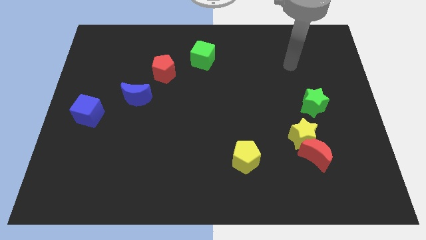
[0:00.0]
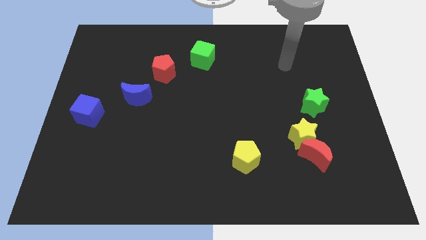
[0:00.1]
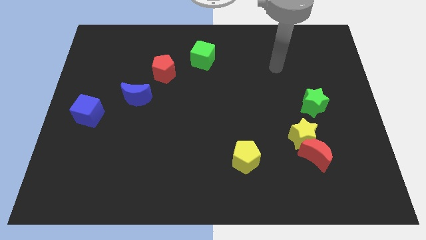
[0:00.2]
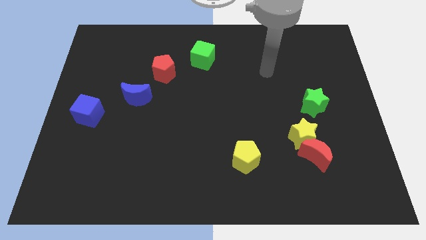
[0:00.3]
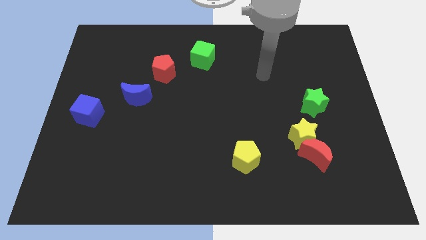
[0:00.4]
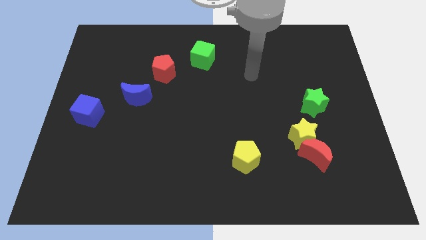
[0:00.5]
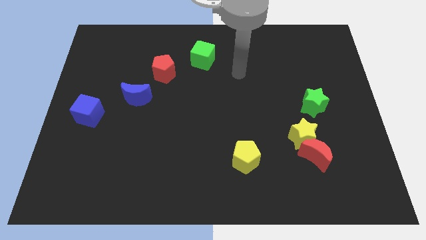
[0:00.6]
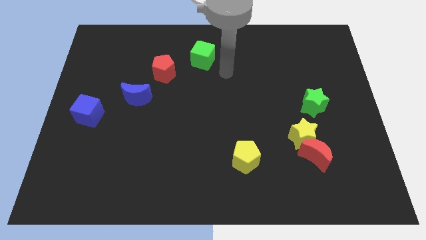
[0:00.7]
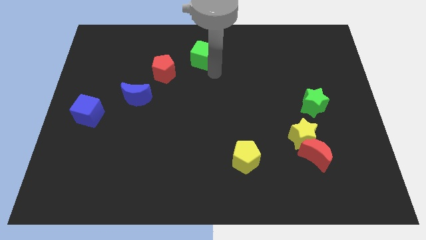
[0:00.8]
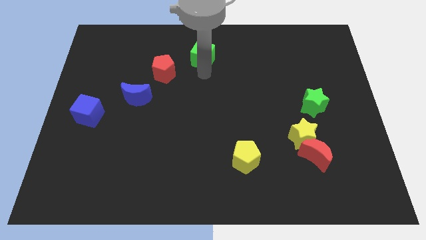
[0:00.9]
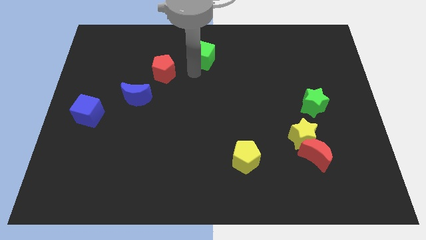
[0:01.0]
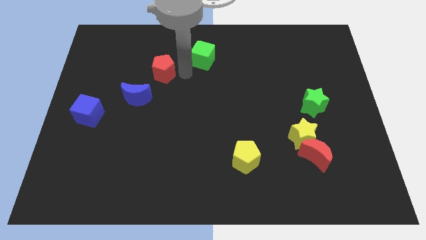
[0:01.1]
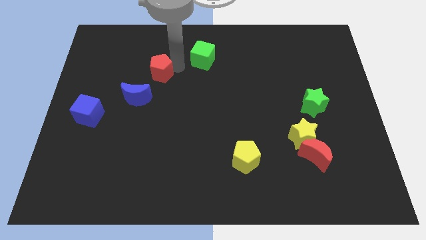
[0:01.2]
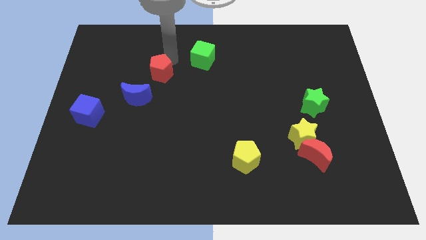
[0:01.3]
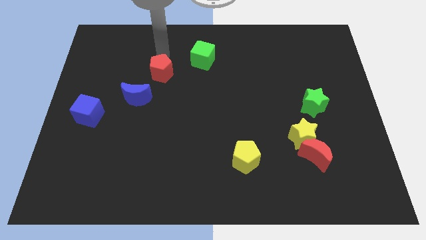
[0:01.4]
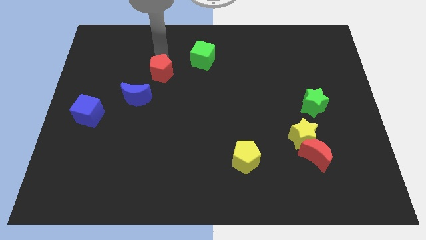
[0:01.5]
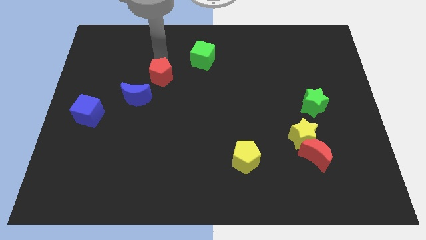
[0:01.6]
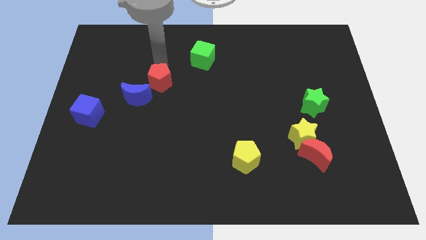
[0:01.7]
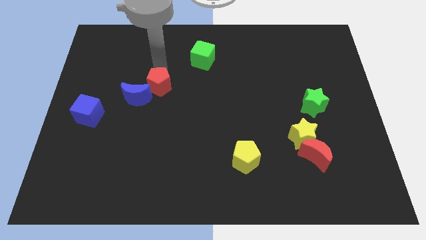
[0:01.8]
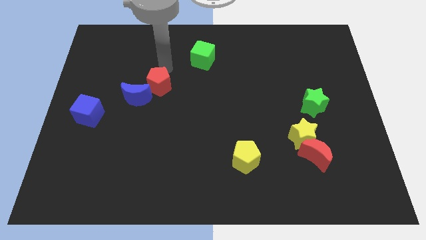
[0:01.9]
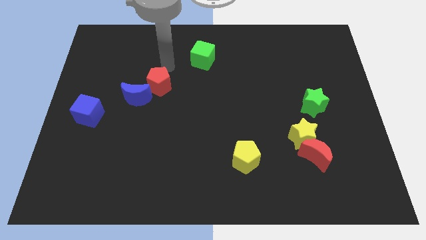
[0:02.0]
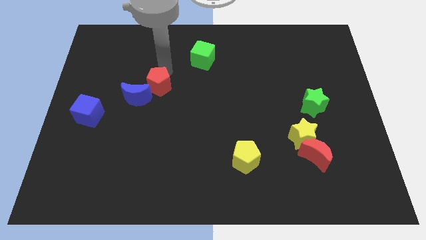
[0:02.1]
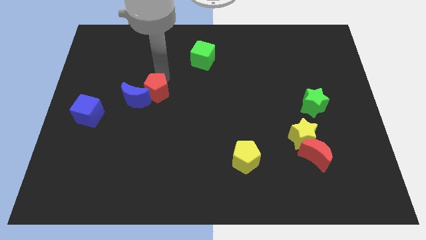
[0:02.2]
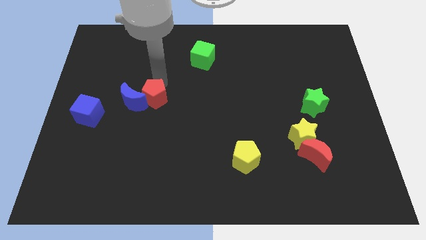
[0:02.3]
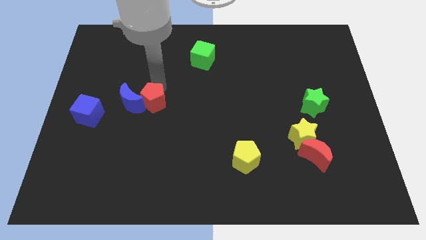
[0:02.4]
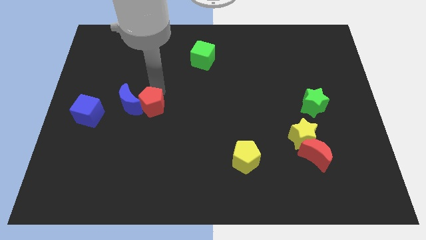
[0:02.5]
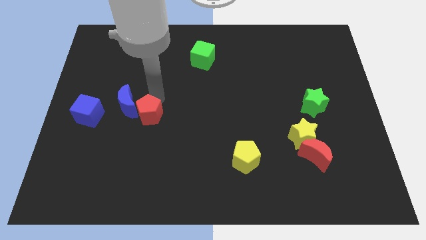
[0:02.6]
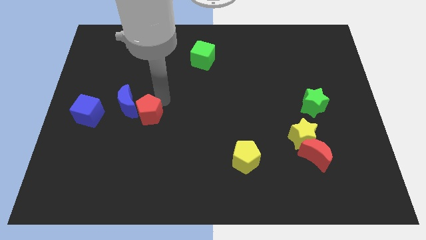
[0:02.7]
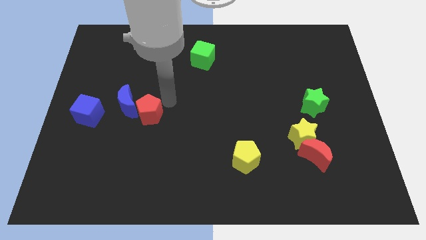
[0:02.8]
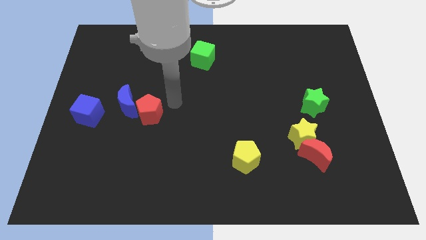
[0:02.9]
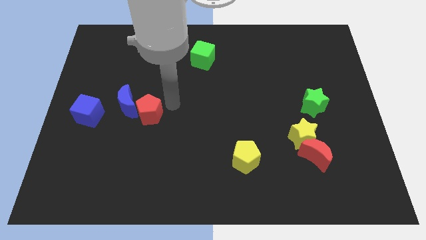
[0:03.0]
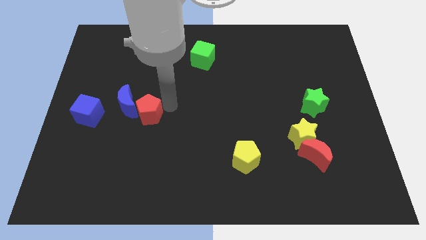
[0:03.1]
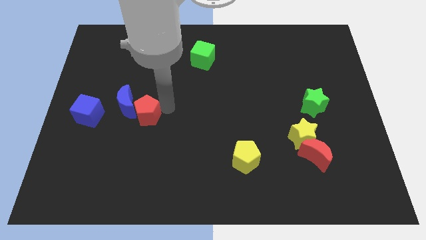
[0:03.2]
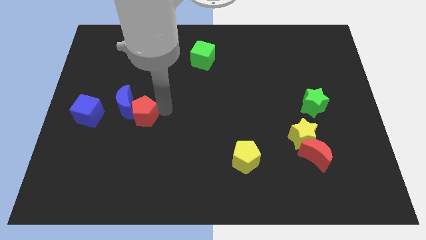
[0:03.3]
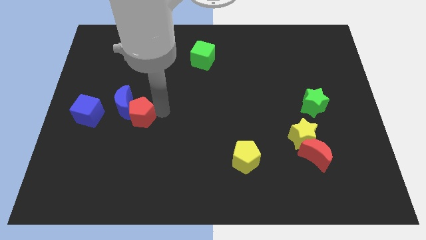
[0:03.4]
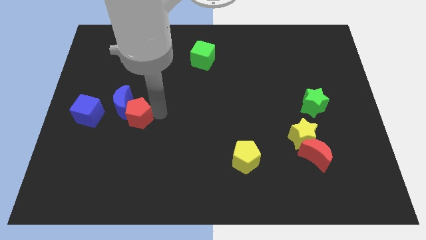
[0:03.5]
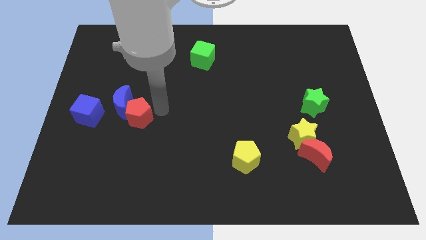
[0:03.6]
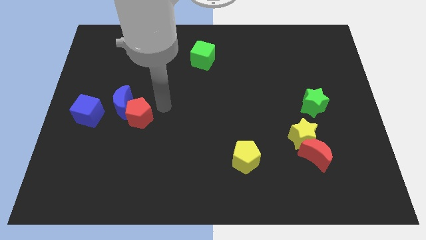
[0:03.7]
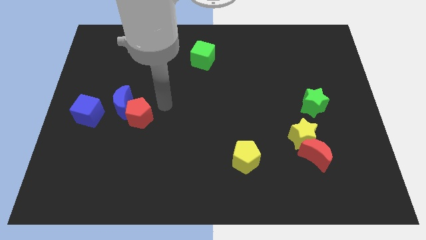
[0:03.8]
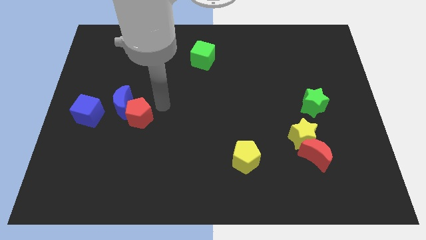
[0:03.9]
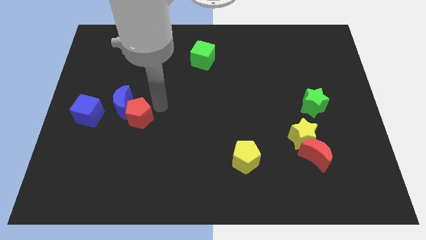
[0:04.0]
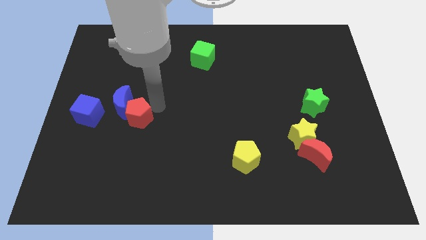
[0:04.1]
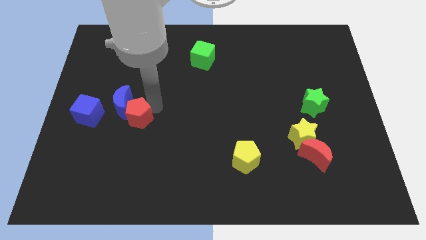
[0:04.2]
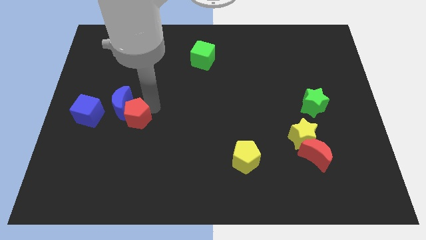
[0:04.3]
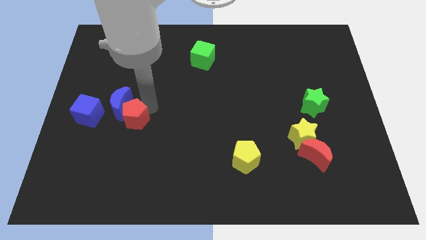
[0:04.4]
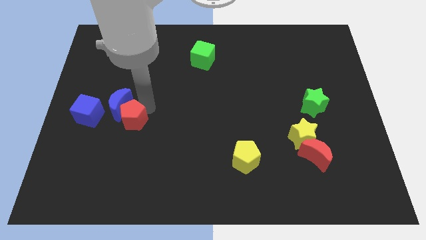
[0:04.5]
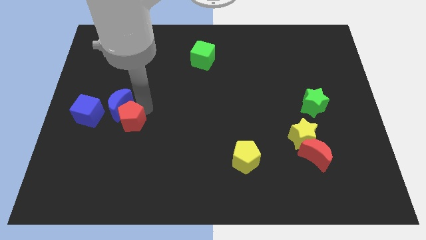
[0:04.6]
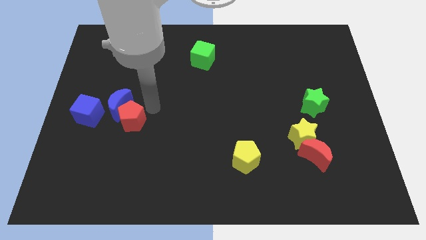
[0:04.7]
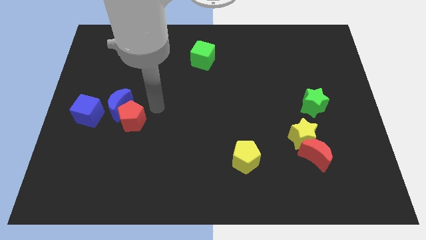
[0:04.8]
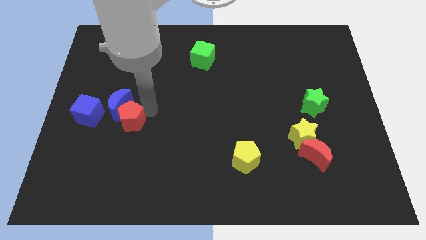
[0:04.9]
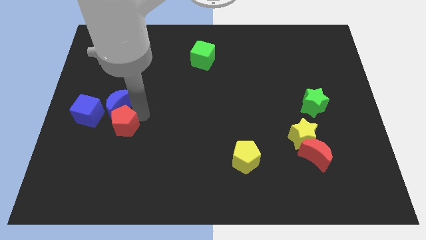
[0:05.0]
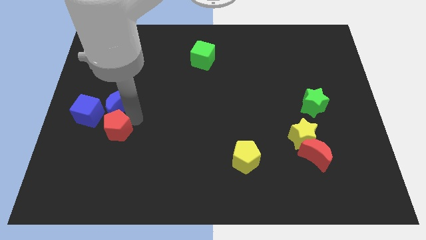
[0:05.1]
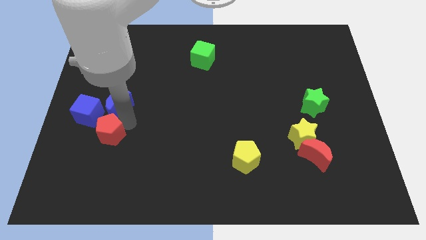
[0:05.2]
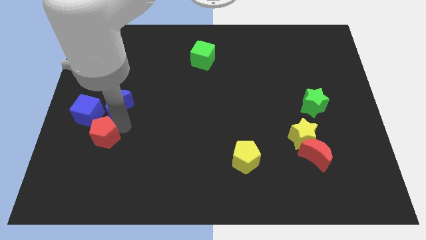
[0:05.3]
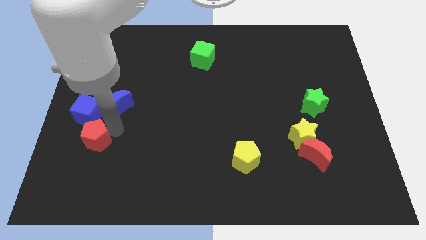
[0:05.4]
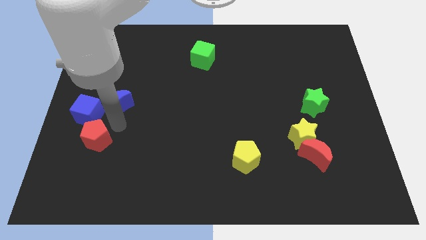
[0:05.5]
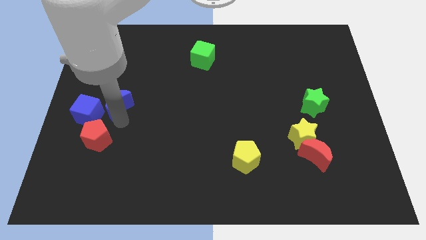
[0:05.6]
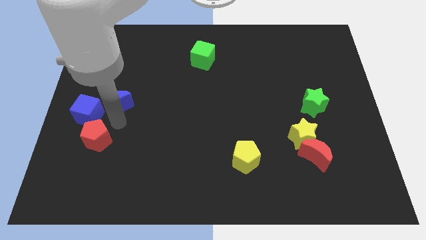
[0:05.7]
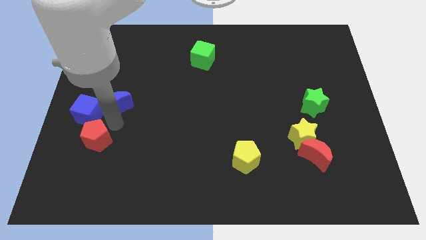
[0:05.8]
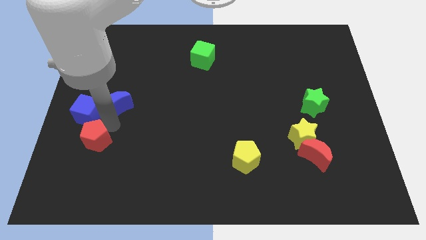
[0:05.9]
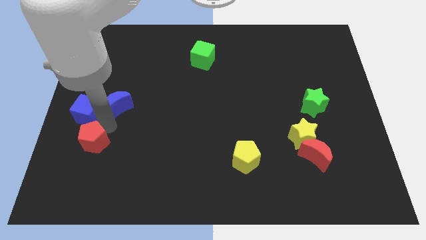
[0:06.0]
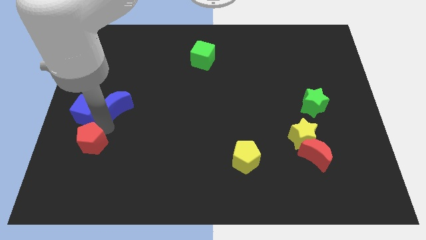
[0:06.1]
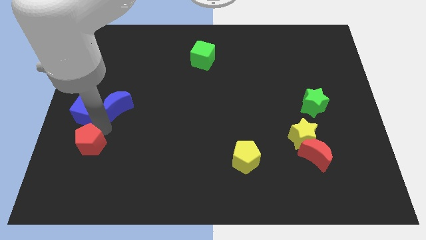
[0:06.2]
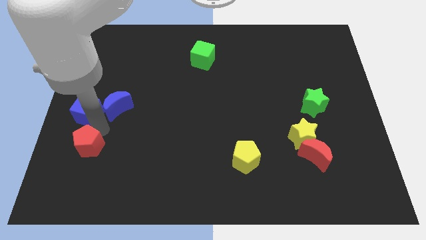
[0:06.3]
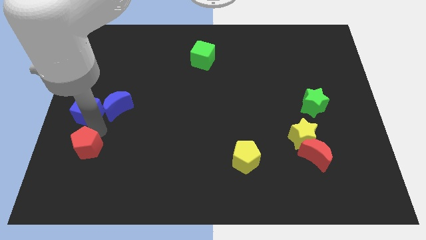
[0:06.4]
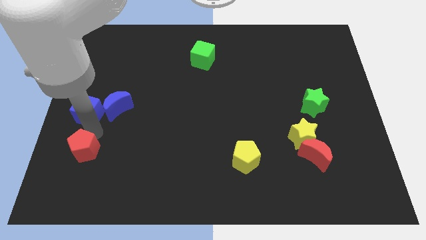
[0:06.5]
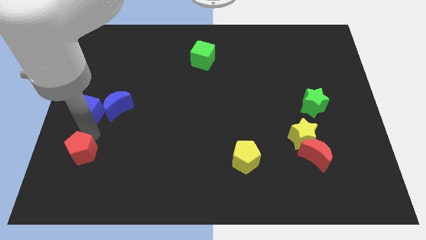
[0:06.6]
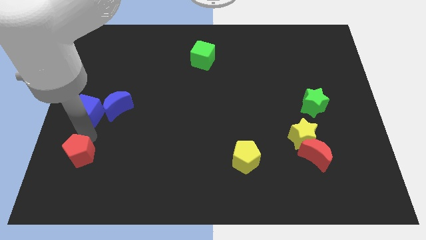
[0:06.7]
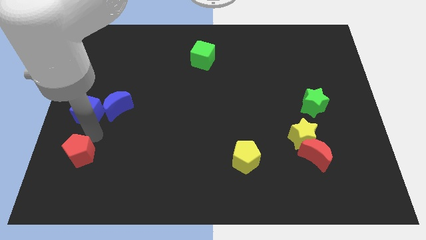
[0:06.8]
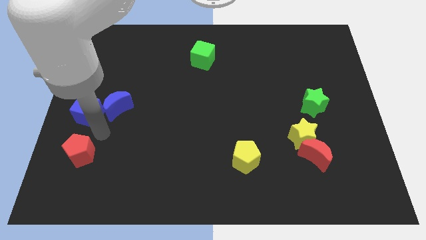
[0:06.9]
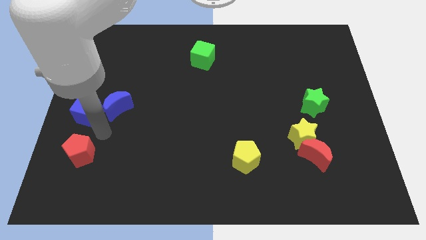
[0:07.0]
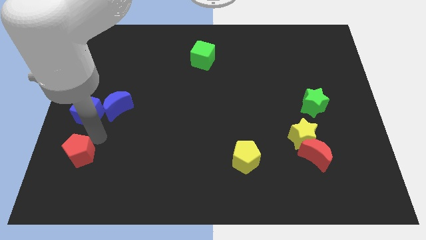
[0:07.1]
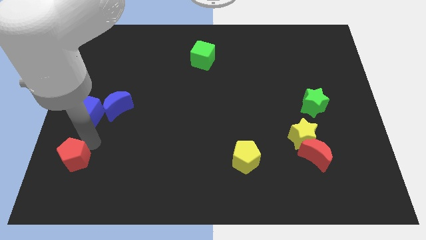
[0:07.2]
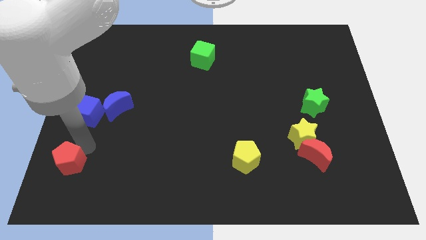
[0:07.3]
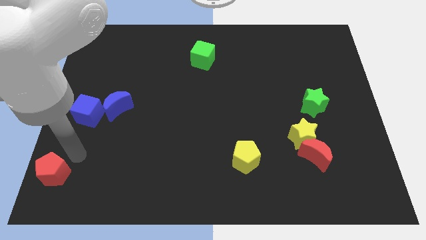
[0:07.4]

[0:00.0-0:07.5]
put the red pentagon to the bottom left of the board
